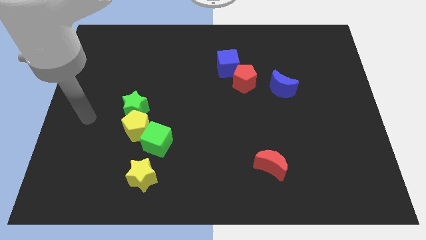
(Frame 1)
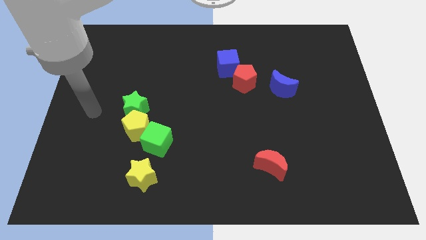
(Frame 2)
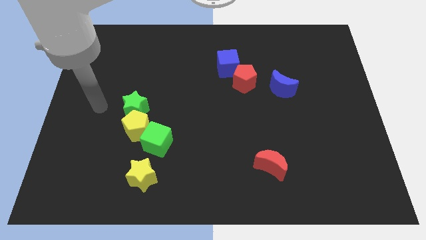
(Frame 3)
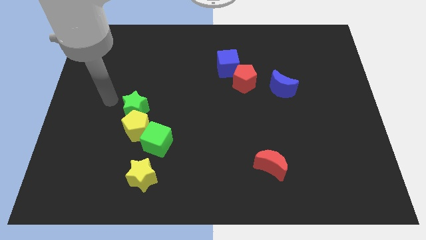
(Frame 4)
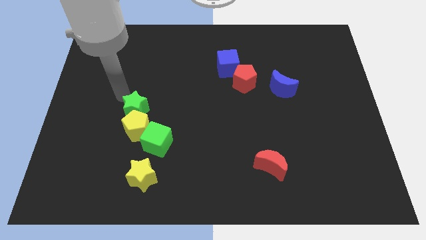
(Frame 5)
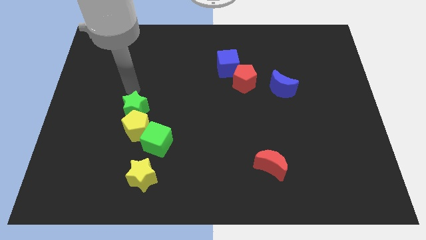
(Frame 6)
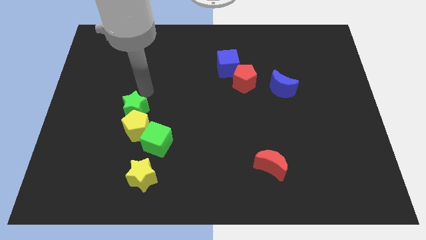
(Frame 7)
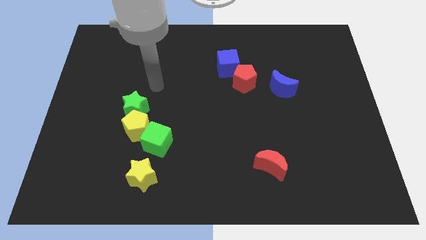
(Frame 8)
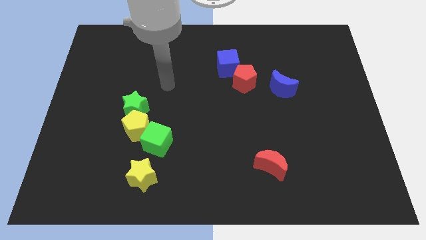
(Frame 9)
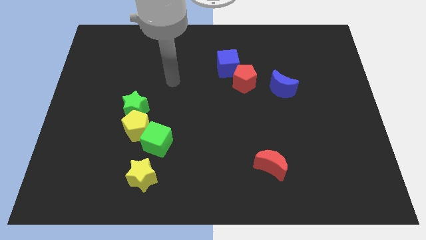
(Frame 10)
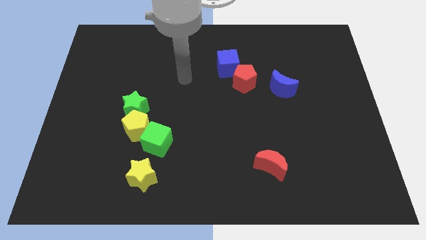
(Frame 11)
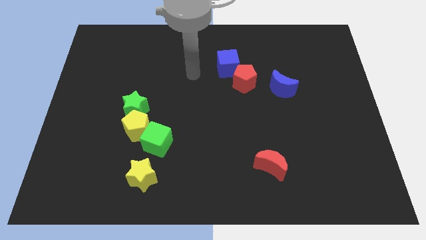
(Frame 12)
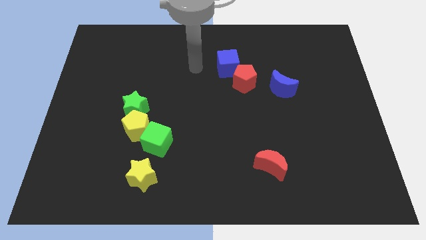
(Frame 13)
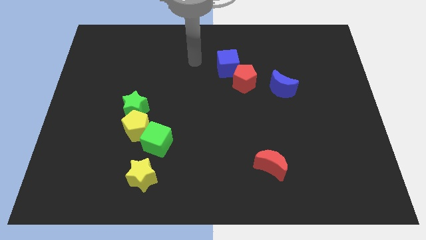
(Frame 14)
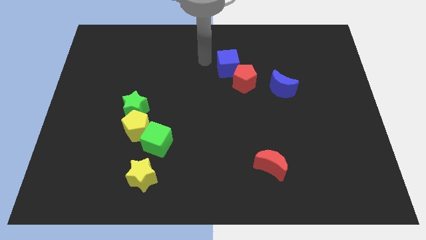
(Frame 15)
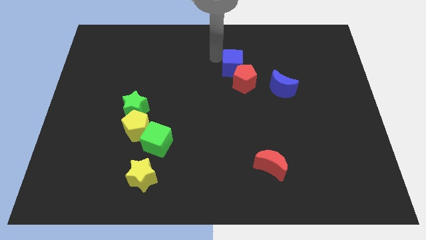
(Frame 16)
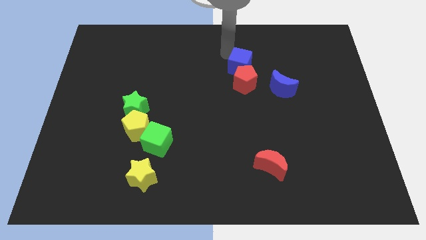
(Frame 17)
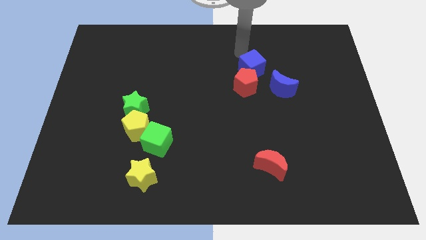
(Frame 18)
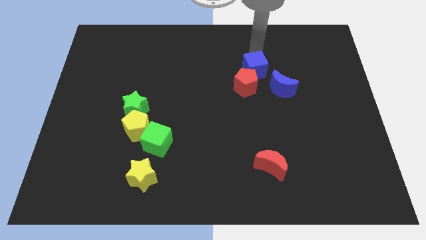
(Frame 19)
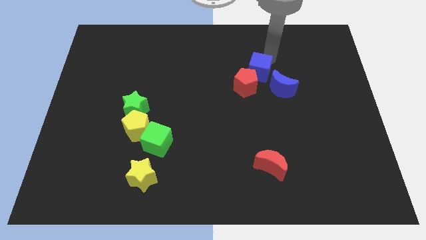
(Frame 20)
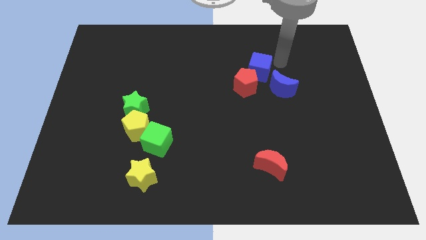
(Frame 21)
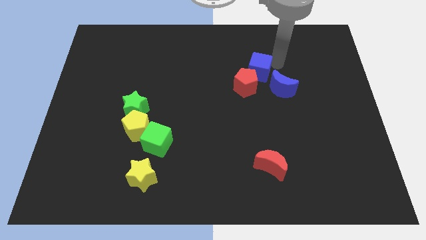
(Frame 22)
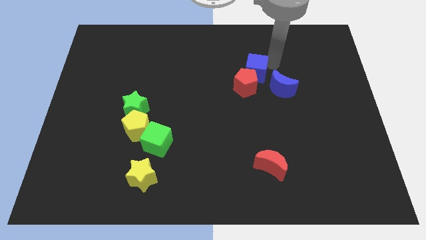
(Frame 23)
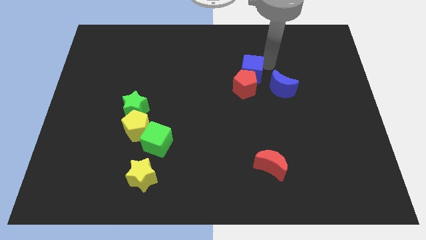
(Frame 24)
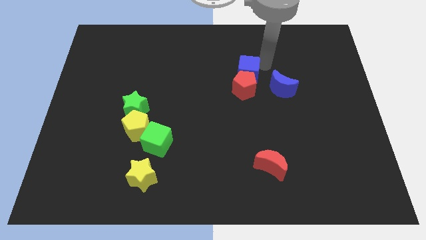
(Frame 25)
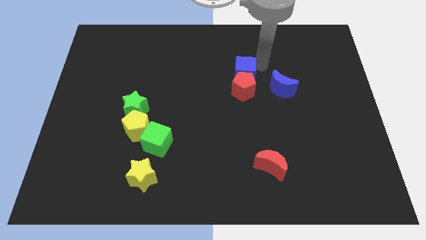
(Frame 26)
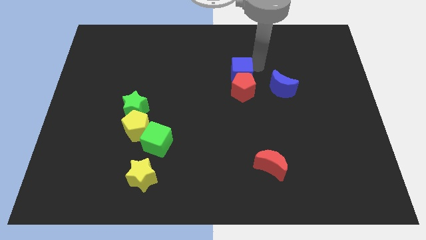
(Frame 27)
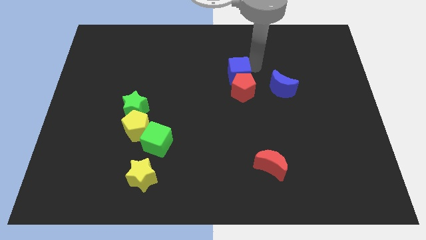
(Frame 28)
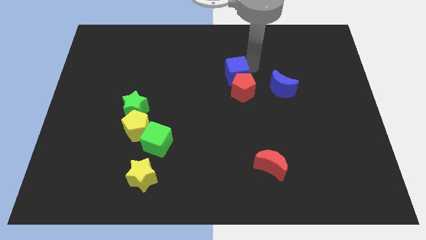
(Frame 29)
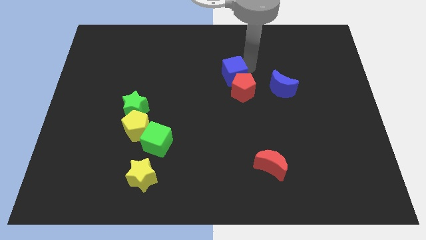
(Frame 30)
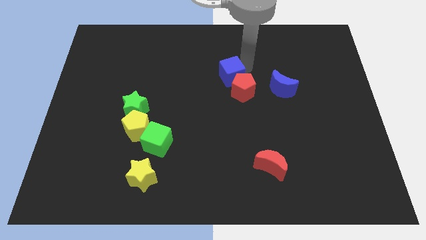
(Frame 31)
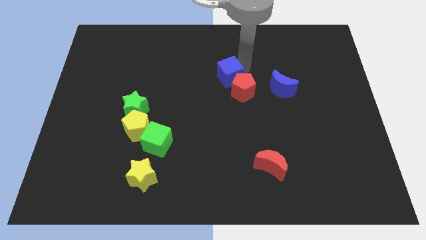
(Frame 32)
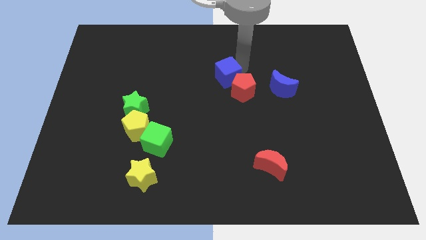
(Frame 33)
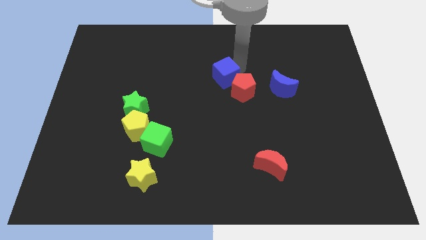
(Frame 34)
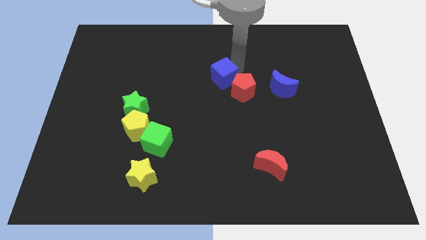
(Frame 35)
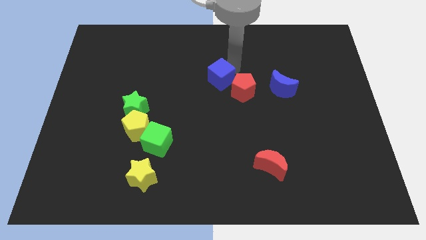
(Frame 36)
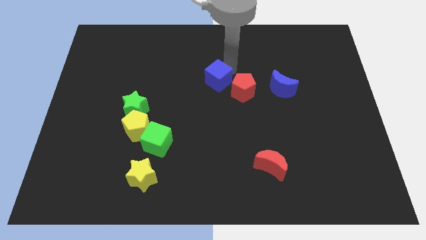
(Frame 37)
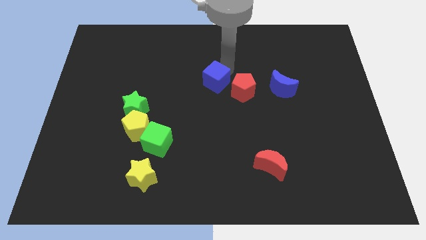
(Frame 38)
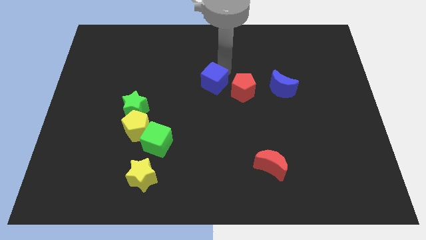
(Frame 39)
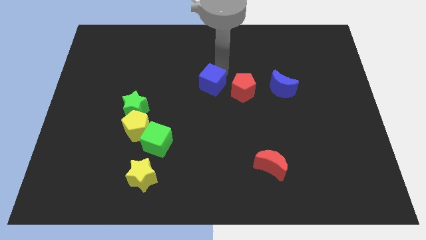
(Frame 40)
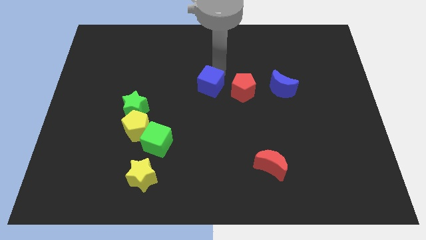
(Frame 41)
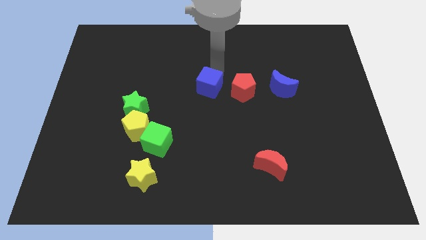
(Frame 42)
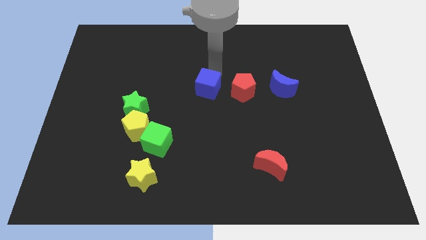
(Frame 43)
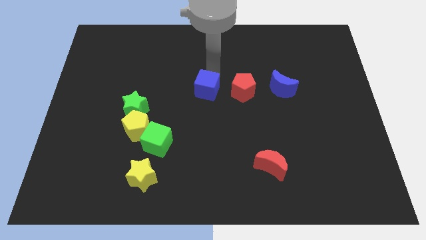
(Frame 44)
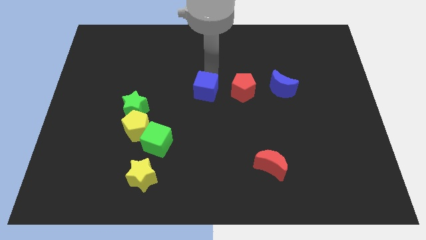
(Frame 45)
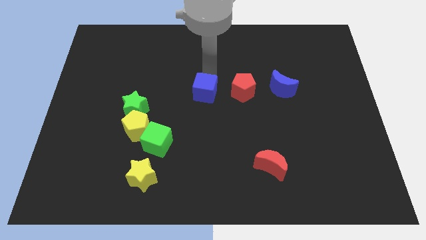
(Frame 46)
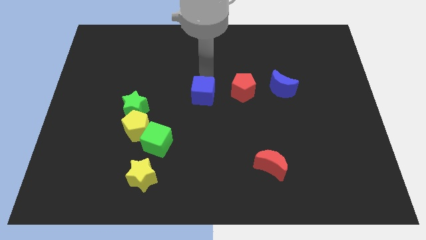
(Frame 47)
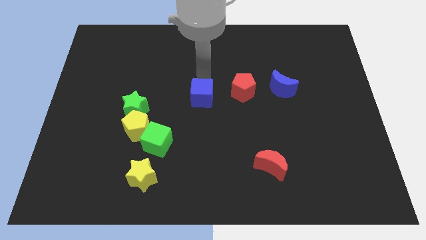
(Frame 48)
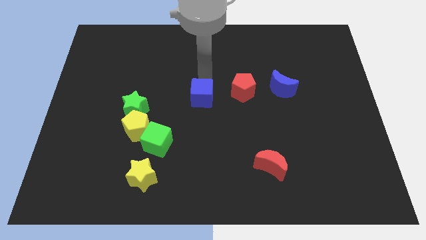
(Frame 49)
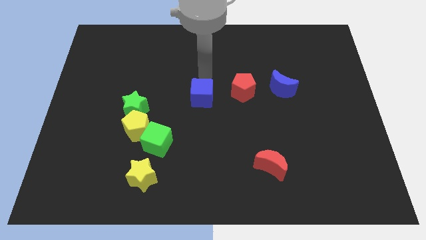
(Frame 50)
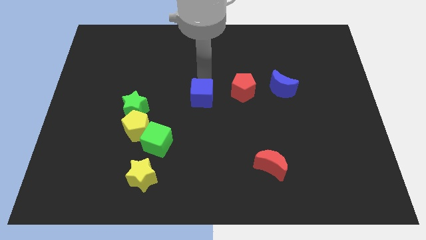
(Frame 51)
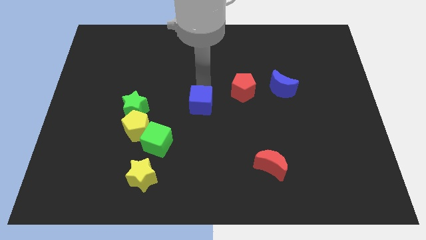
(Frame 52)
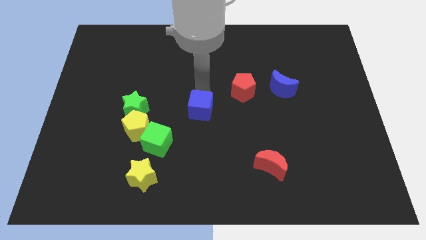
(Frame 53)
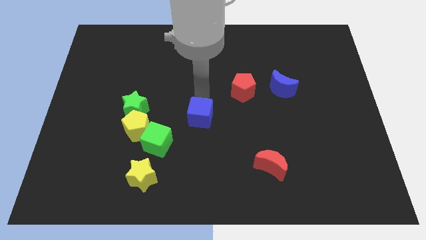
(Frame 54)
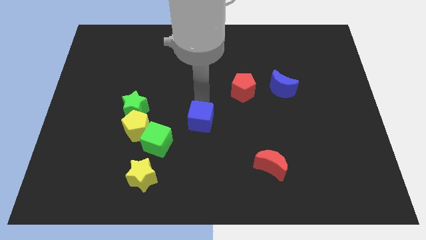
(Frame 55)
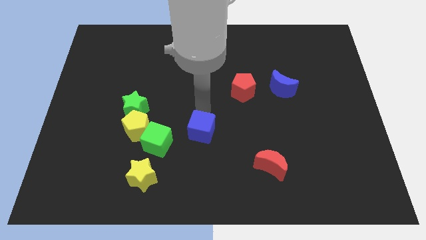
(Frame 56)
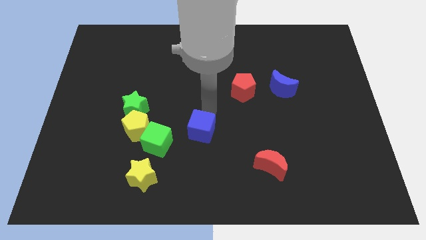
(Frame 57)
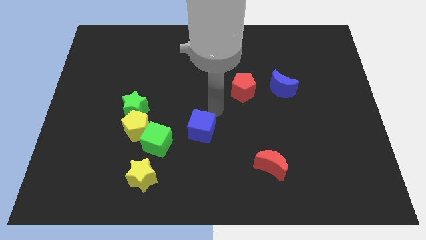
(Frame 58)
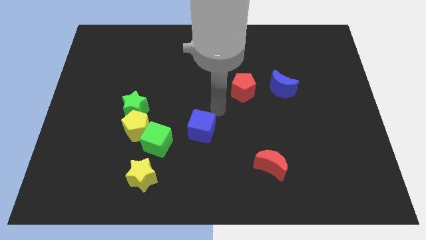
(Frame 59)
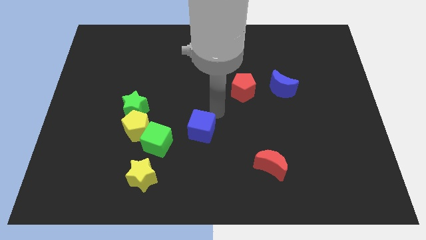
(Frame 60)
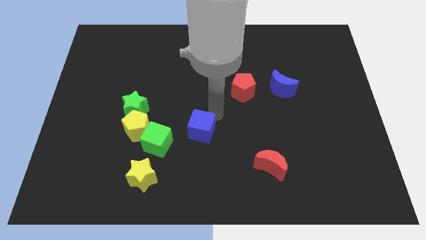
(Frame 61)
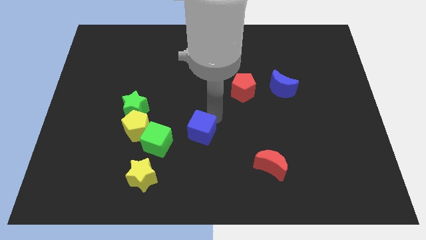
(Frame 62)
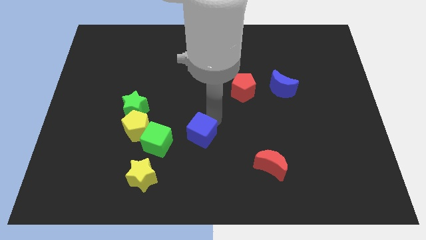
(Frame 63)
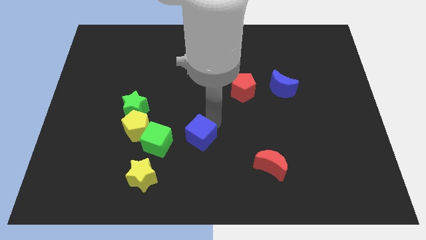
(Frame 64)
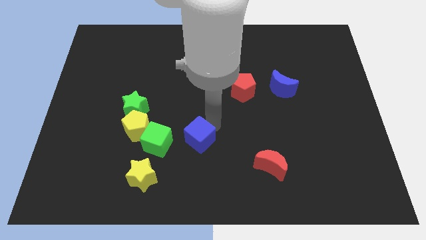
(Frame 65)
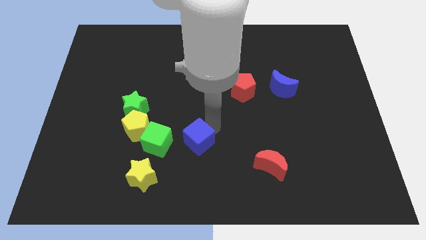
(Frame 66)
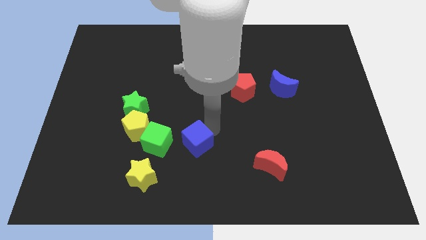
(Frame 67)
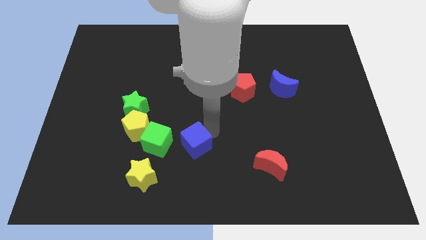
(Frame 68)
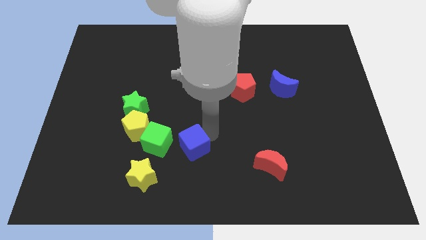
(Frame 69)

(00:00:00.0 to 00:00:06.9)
push the blue cube to the top right side of the yellow star
